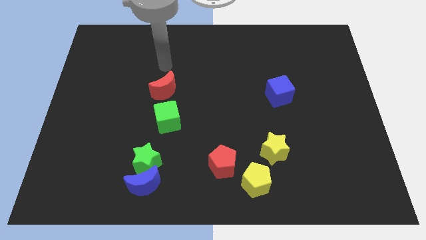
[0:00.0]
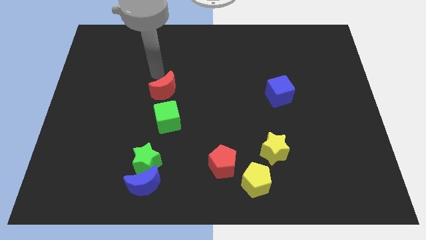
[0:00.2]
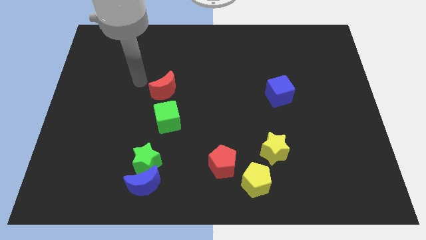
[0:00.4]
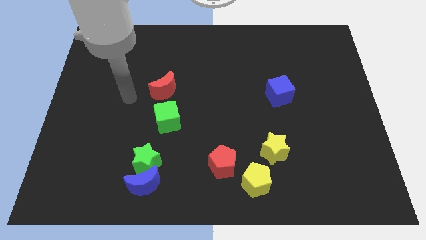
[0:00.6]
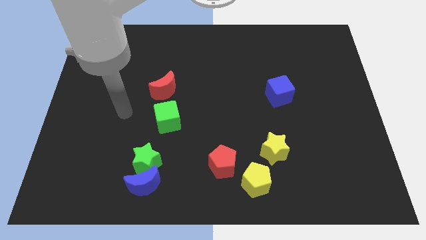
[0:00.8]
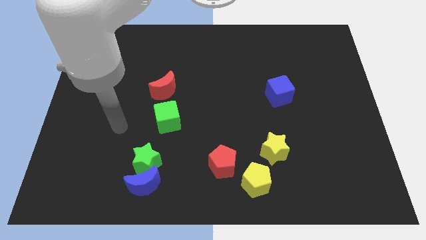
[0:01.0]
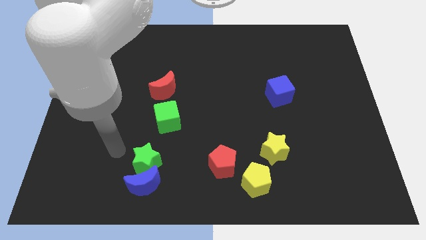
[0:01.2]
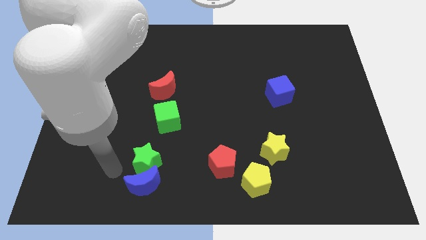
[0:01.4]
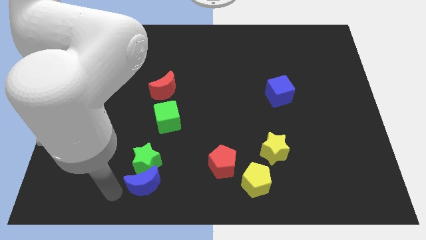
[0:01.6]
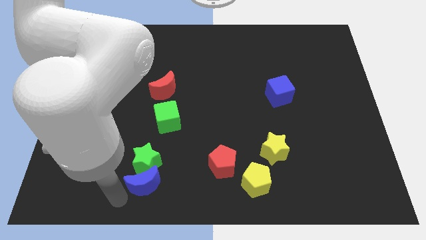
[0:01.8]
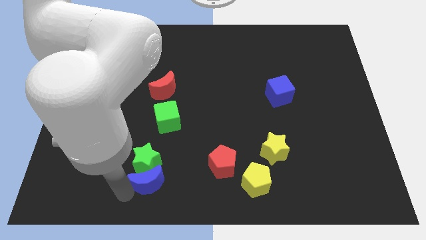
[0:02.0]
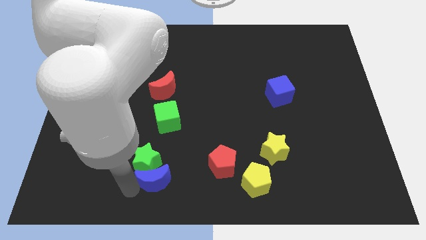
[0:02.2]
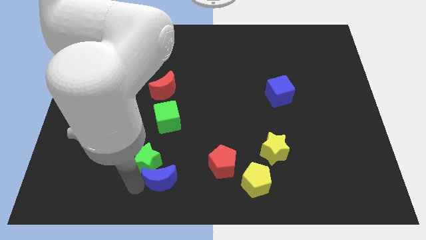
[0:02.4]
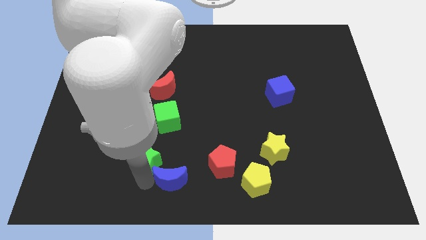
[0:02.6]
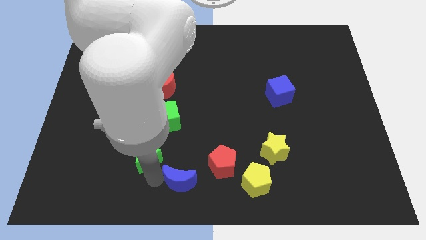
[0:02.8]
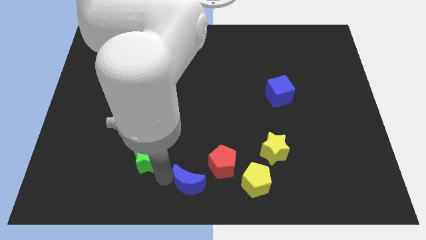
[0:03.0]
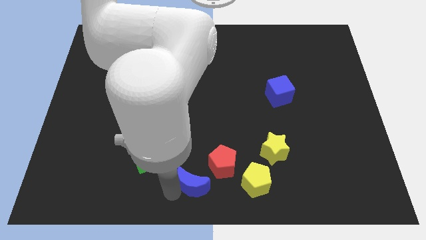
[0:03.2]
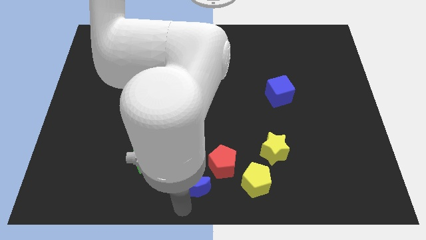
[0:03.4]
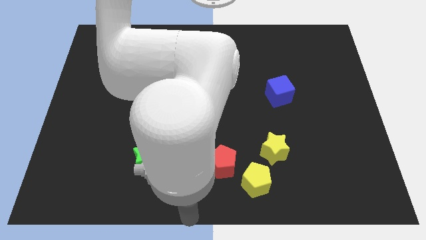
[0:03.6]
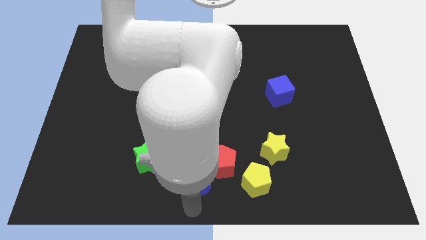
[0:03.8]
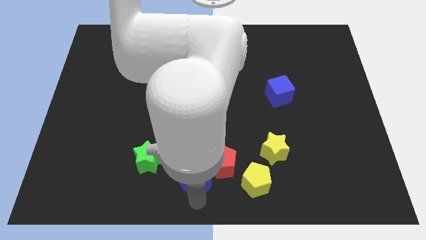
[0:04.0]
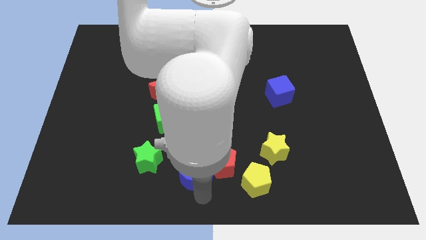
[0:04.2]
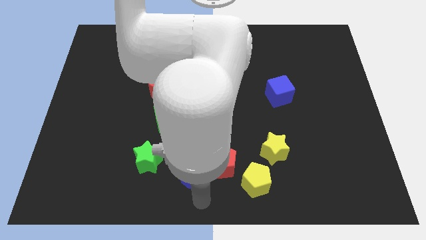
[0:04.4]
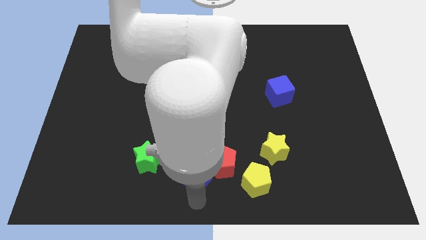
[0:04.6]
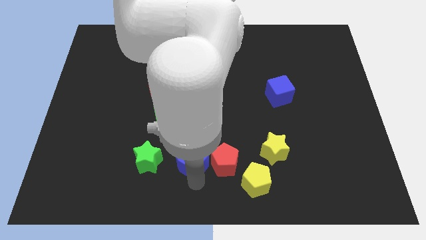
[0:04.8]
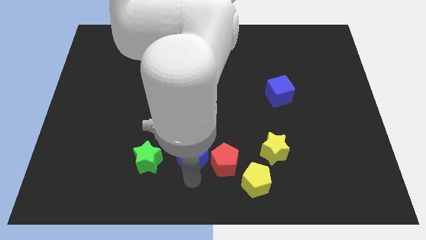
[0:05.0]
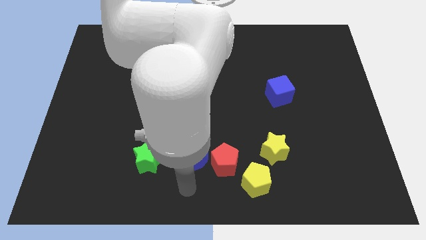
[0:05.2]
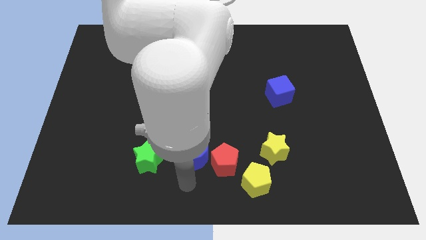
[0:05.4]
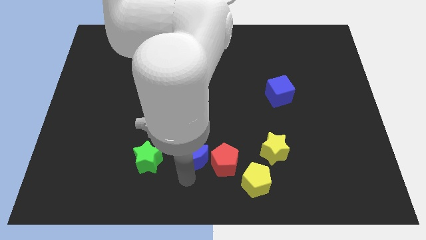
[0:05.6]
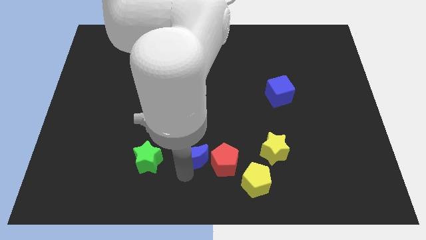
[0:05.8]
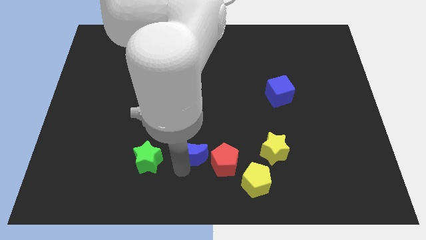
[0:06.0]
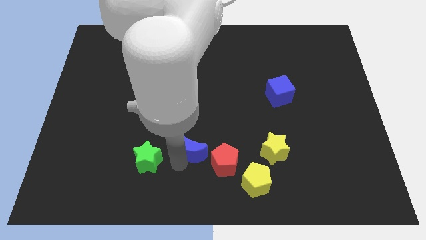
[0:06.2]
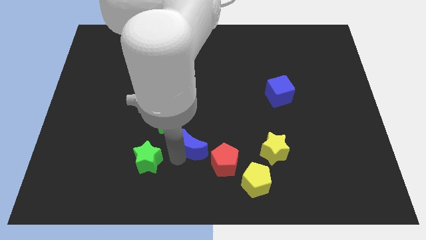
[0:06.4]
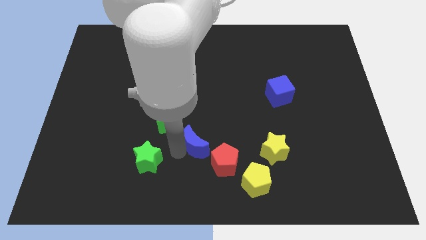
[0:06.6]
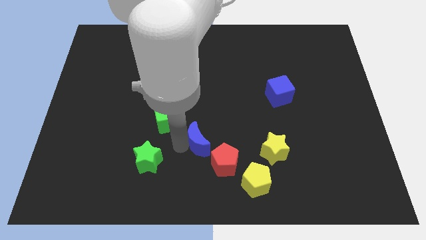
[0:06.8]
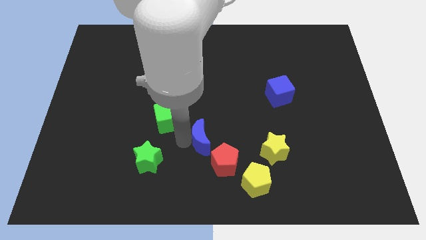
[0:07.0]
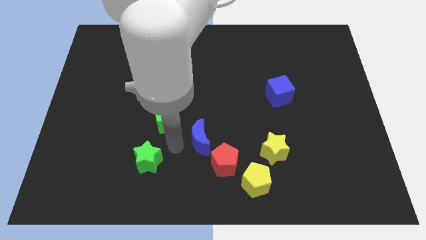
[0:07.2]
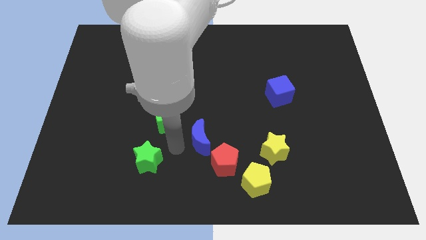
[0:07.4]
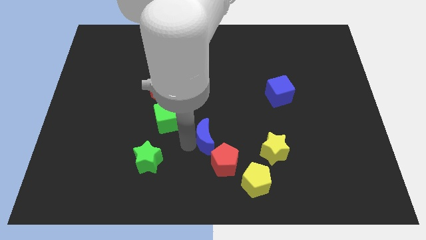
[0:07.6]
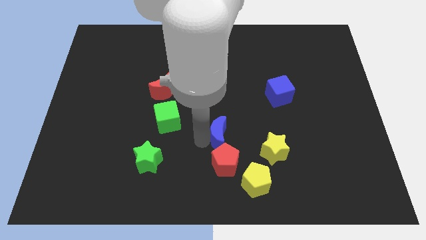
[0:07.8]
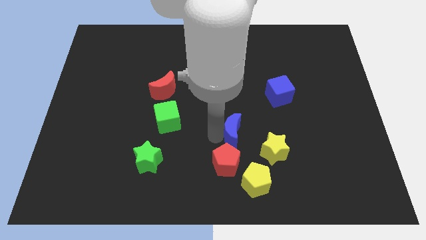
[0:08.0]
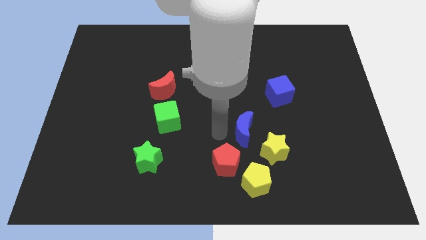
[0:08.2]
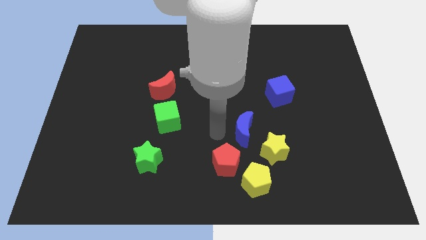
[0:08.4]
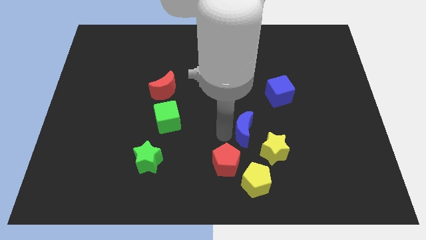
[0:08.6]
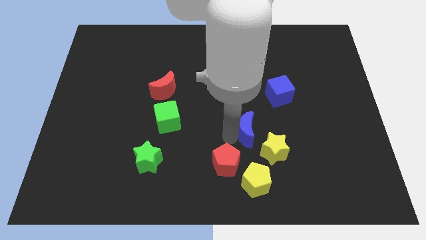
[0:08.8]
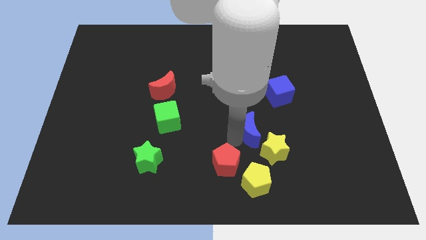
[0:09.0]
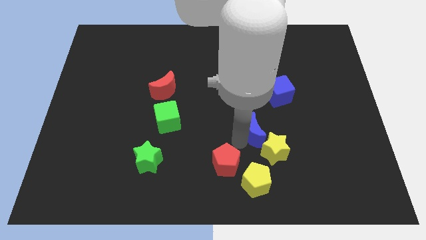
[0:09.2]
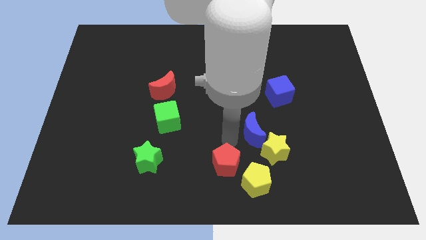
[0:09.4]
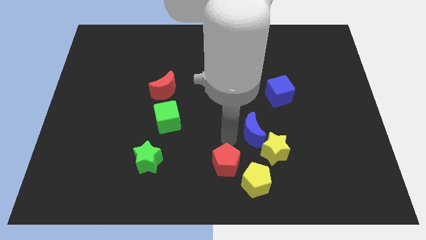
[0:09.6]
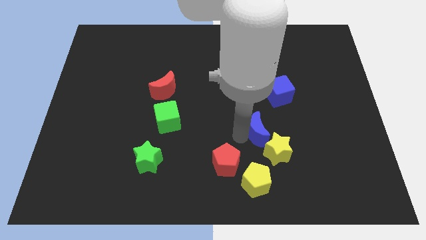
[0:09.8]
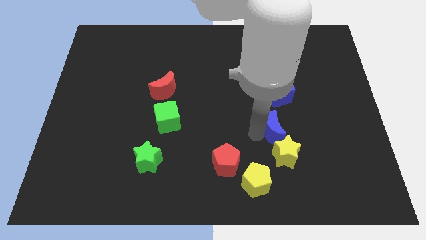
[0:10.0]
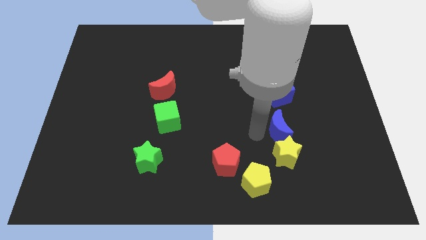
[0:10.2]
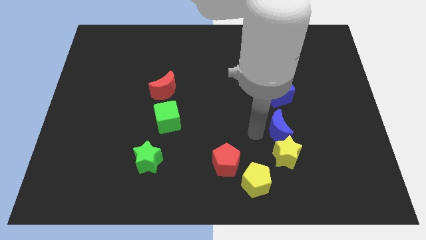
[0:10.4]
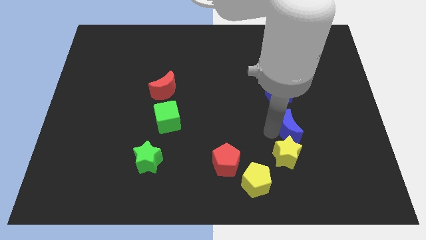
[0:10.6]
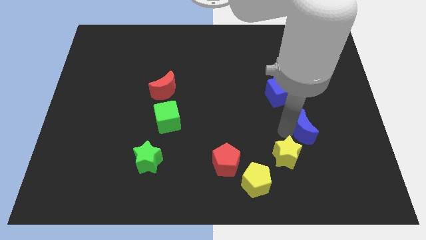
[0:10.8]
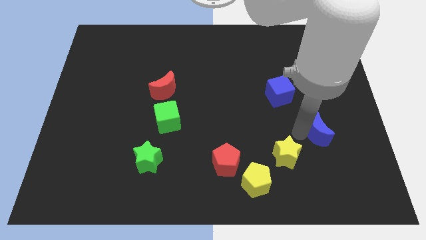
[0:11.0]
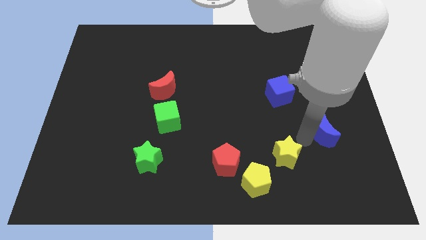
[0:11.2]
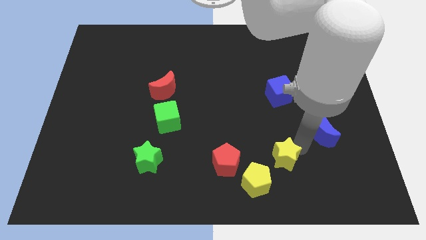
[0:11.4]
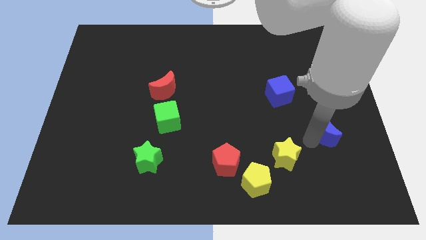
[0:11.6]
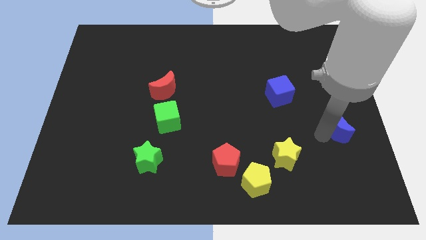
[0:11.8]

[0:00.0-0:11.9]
move the blue moon to the center right
